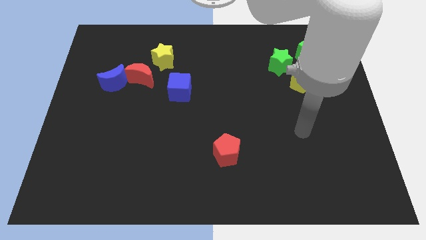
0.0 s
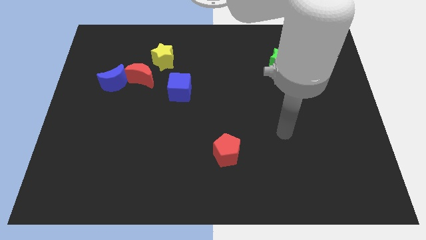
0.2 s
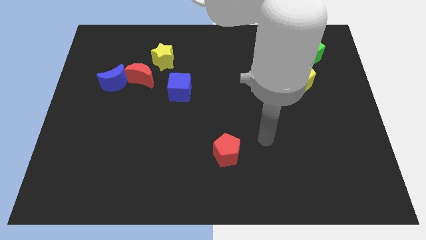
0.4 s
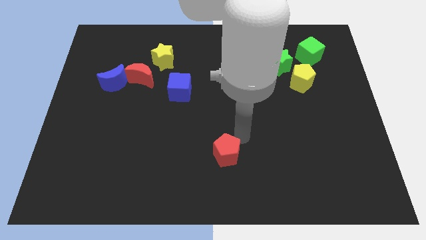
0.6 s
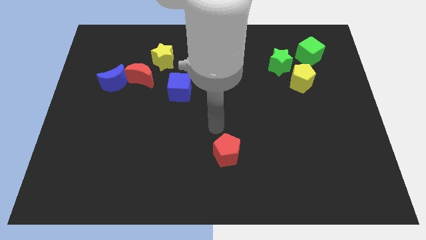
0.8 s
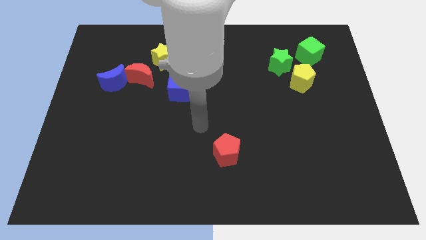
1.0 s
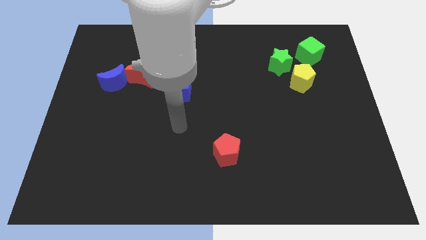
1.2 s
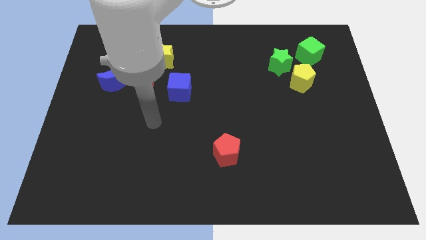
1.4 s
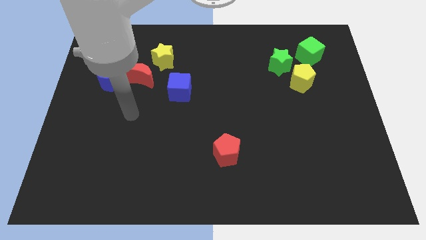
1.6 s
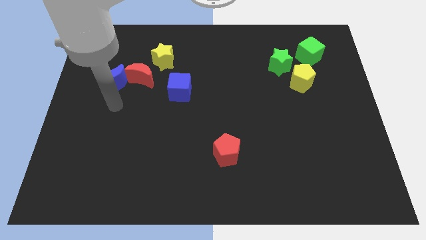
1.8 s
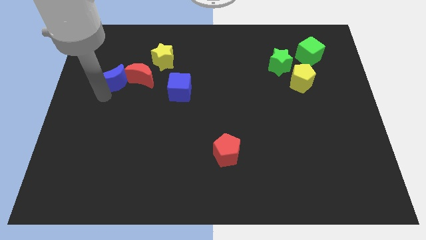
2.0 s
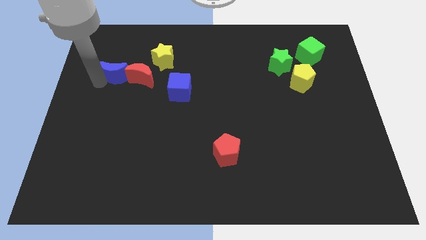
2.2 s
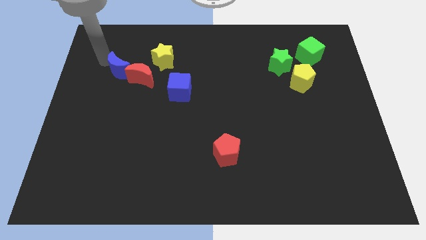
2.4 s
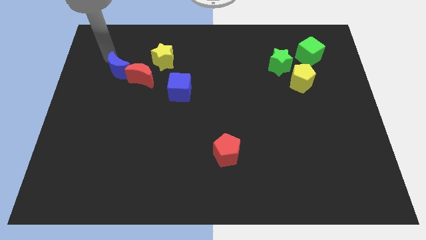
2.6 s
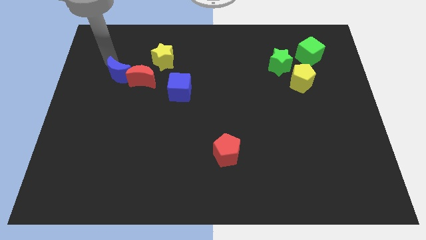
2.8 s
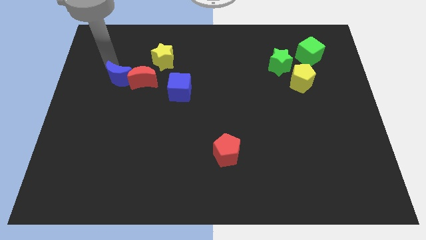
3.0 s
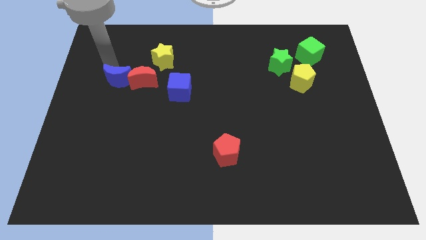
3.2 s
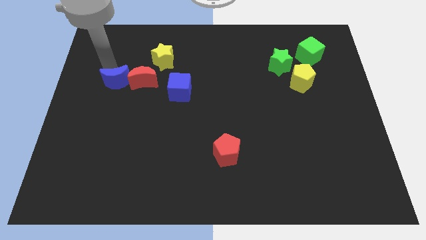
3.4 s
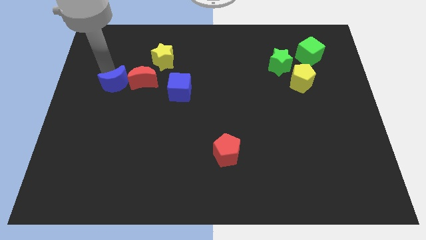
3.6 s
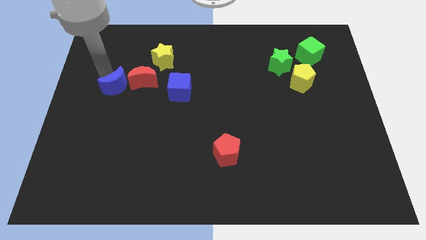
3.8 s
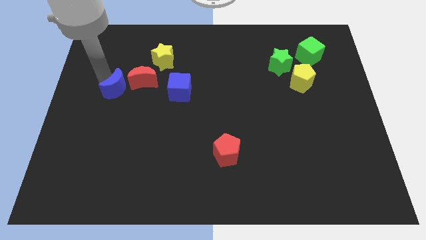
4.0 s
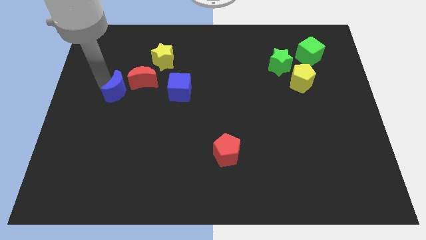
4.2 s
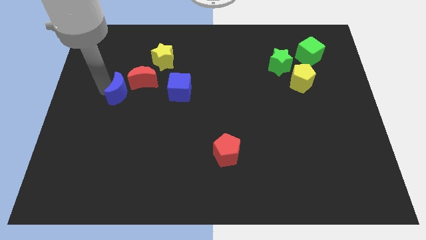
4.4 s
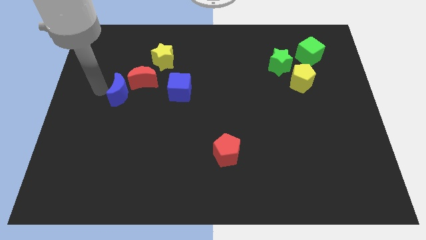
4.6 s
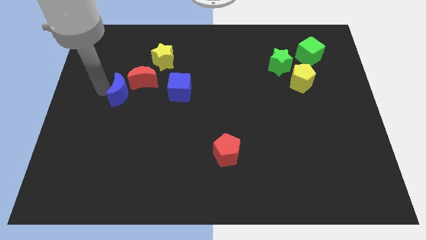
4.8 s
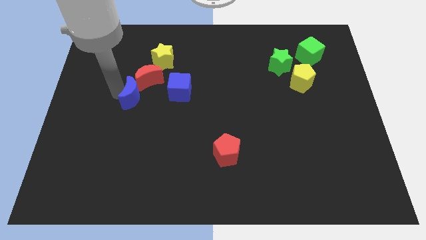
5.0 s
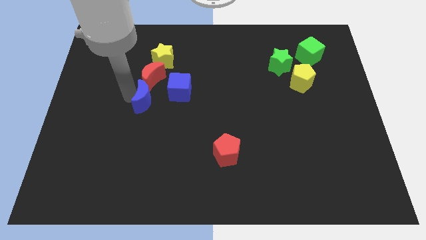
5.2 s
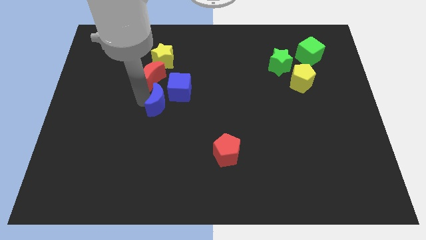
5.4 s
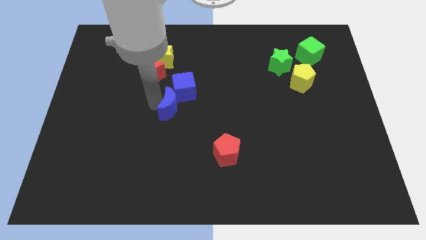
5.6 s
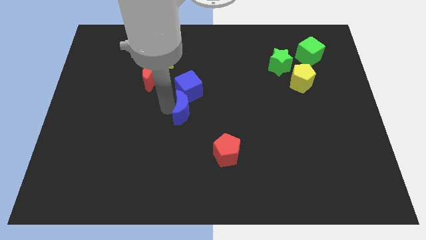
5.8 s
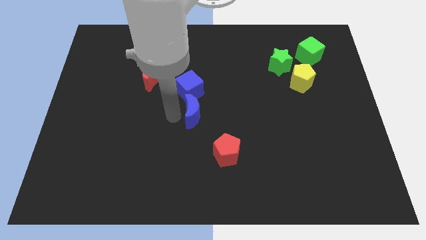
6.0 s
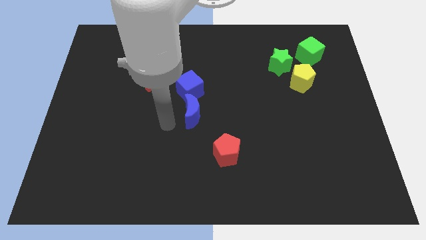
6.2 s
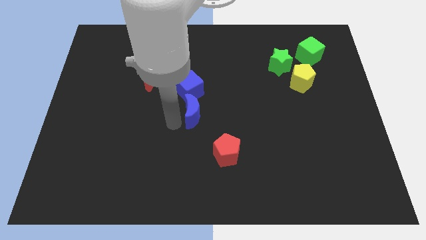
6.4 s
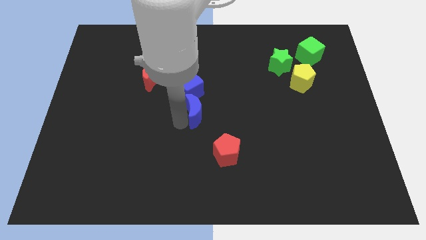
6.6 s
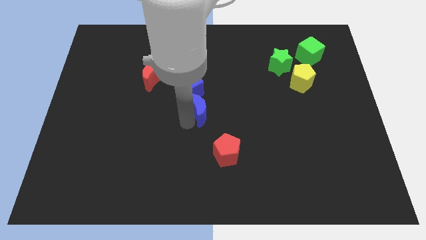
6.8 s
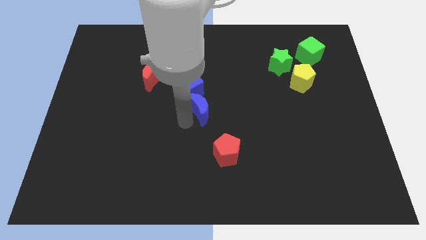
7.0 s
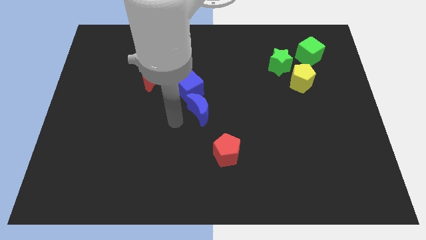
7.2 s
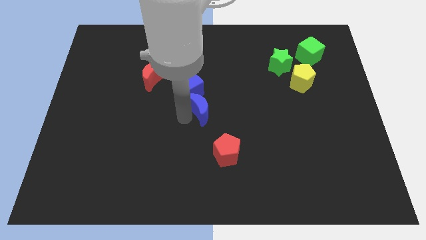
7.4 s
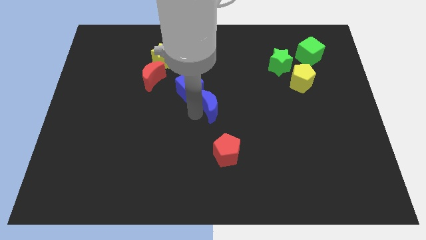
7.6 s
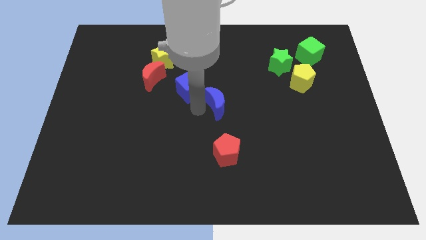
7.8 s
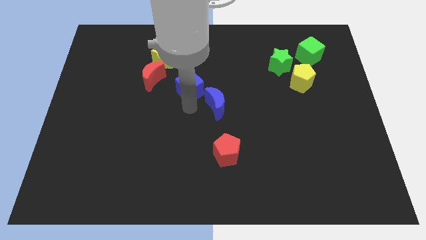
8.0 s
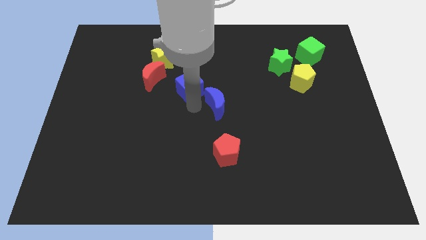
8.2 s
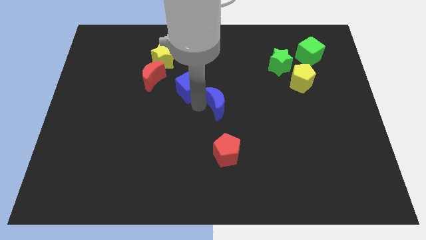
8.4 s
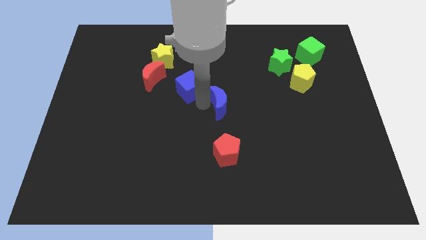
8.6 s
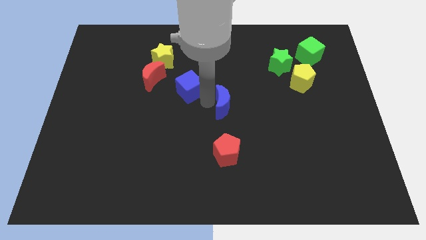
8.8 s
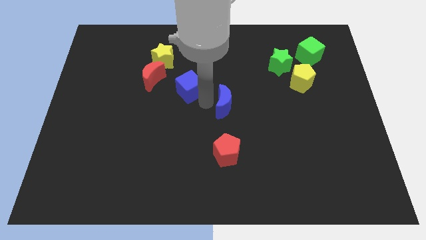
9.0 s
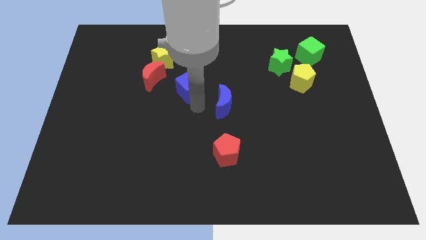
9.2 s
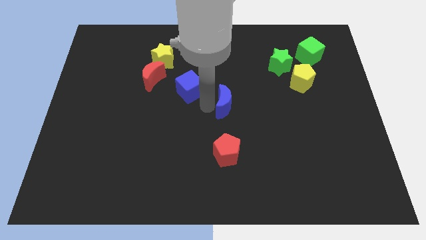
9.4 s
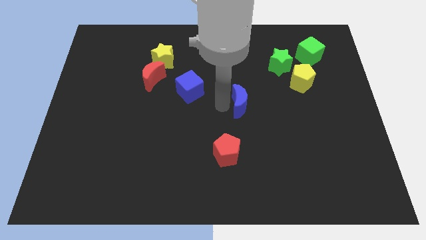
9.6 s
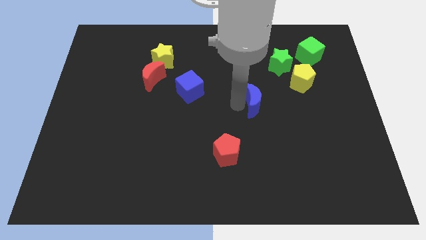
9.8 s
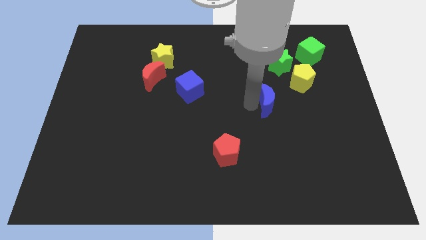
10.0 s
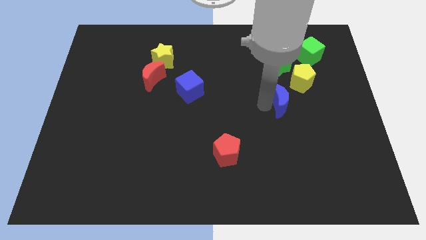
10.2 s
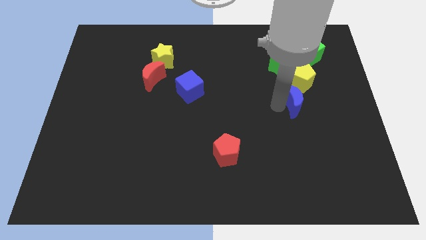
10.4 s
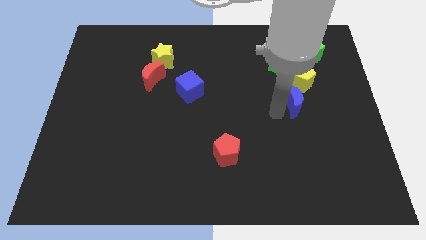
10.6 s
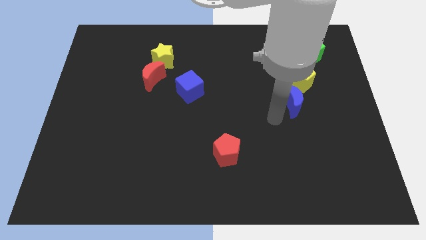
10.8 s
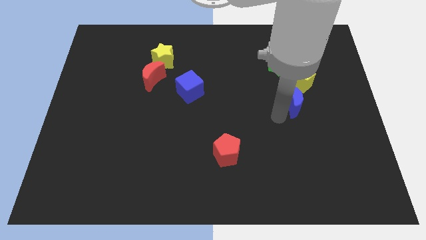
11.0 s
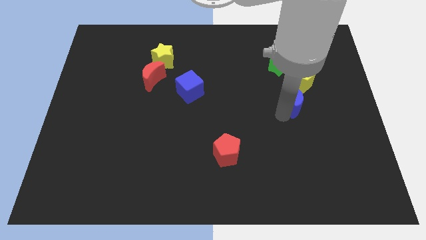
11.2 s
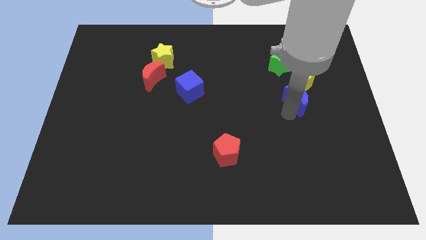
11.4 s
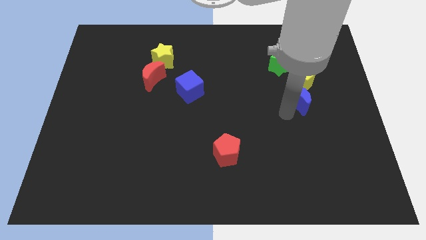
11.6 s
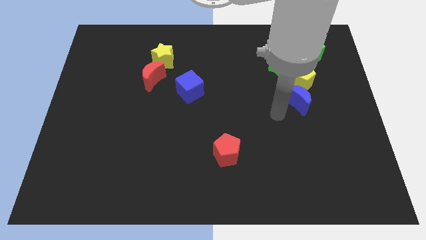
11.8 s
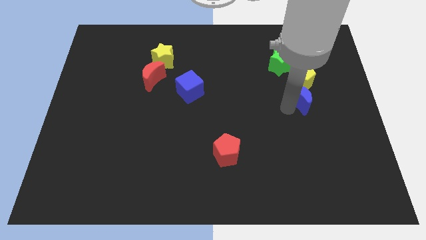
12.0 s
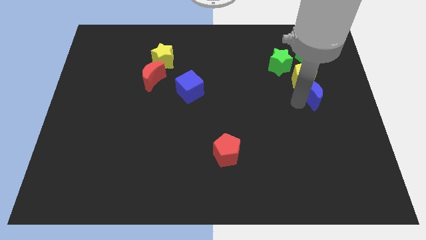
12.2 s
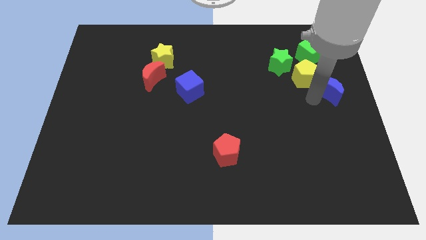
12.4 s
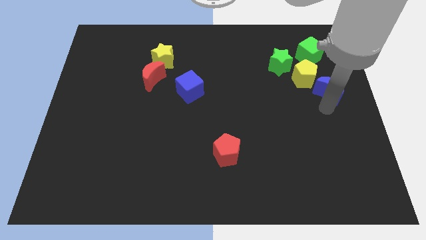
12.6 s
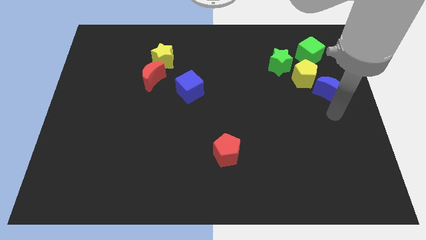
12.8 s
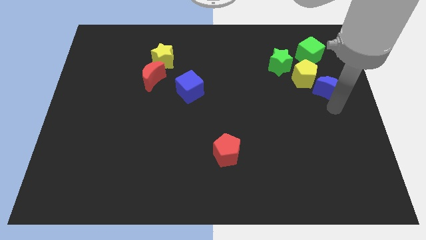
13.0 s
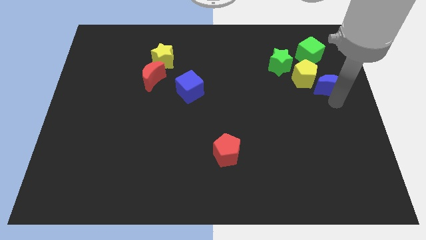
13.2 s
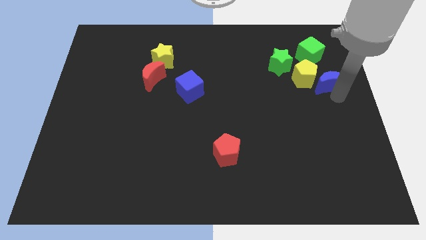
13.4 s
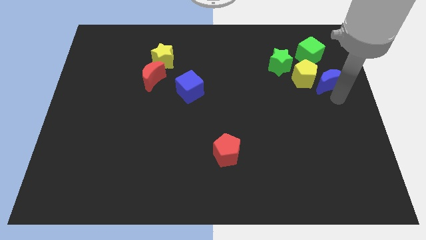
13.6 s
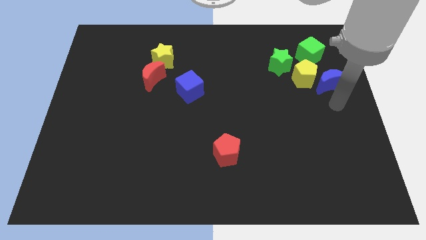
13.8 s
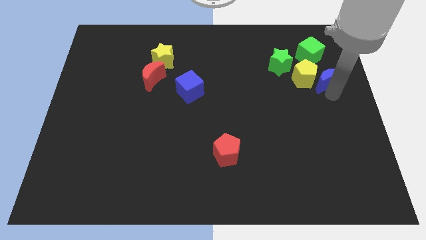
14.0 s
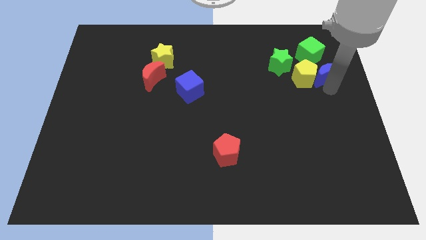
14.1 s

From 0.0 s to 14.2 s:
put the blue moon to the top right of the yellow pentagon
